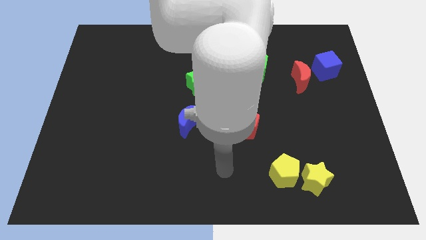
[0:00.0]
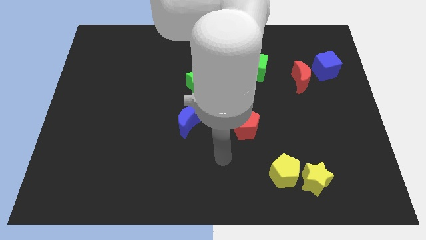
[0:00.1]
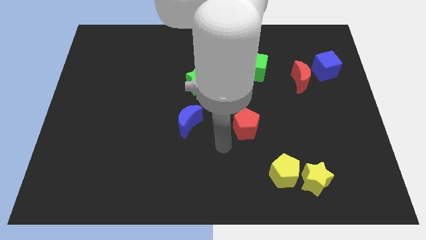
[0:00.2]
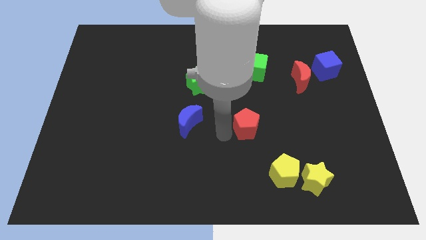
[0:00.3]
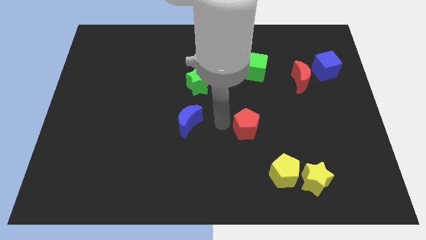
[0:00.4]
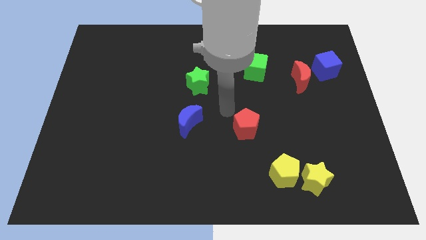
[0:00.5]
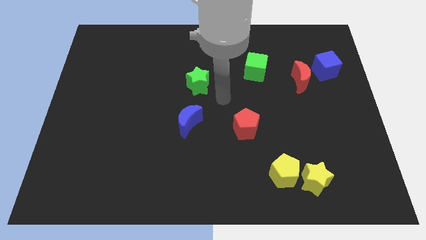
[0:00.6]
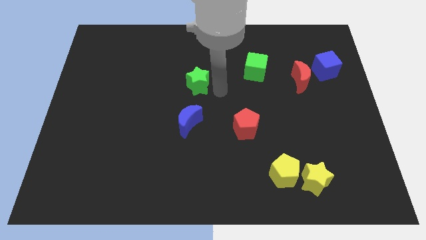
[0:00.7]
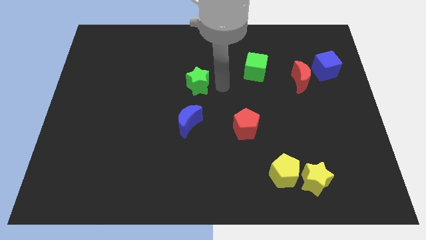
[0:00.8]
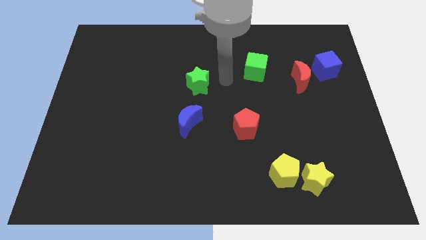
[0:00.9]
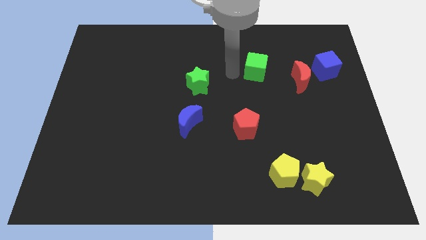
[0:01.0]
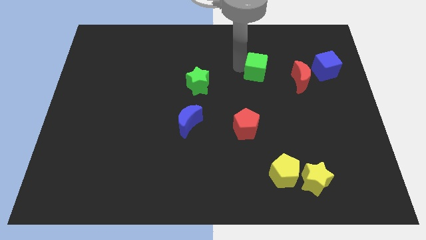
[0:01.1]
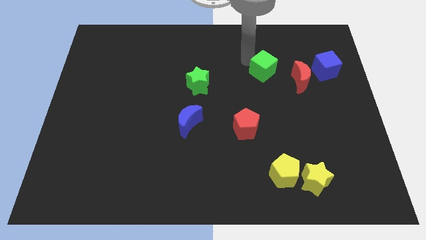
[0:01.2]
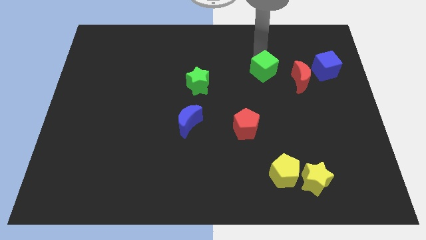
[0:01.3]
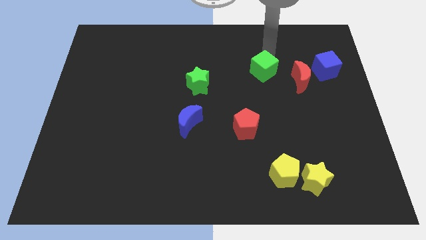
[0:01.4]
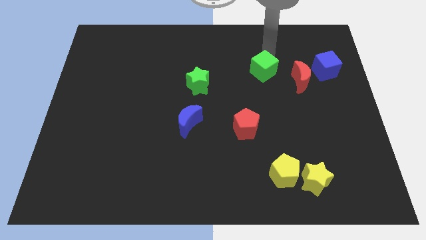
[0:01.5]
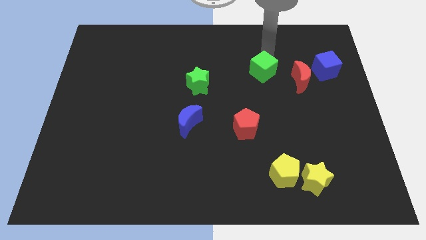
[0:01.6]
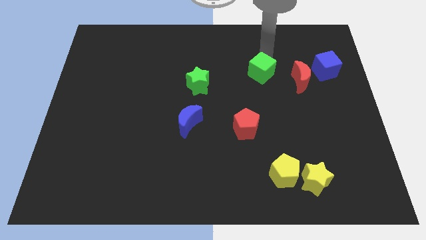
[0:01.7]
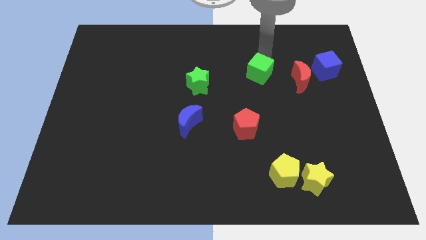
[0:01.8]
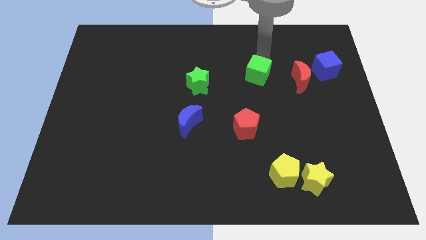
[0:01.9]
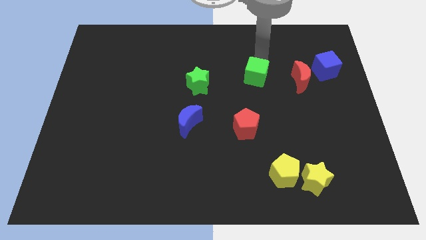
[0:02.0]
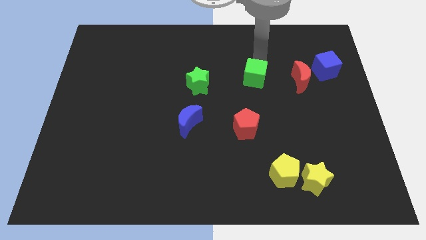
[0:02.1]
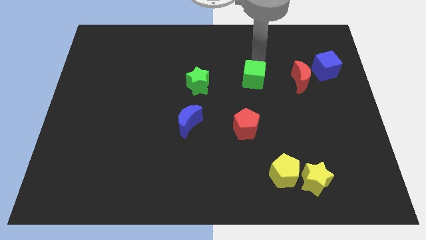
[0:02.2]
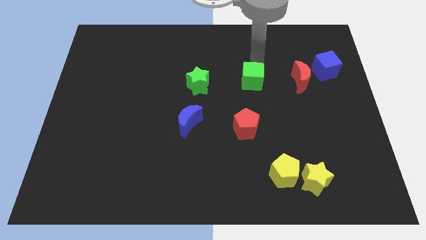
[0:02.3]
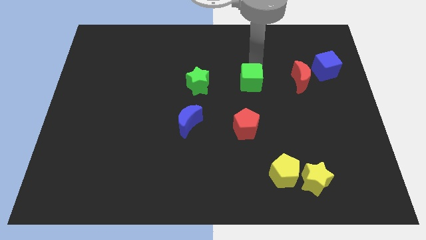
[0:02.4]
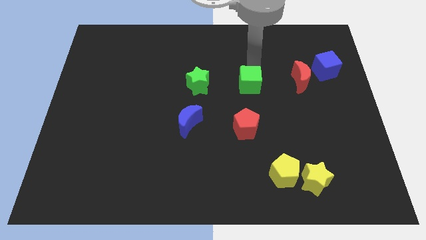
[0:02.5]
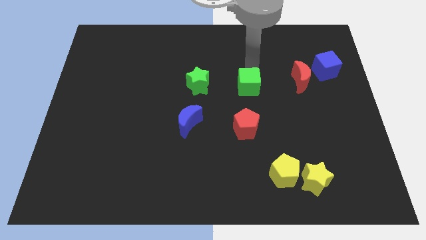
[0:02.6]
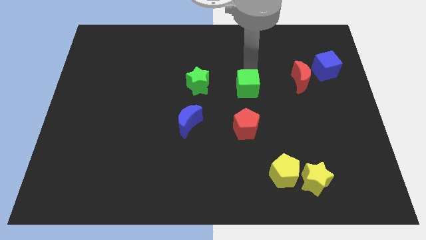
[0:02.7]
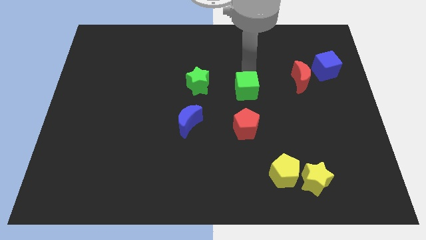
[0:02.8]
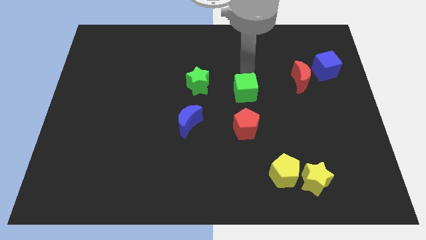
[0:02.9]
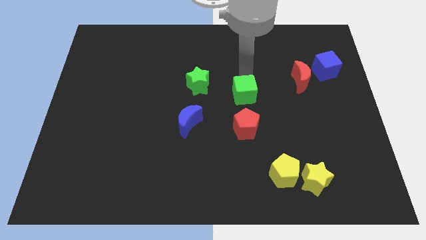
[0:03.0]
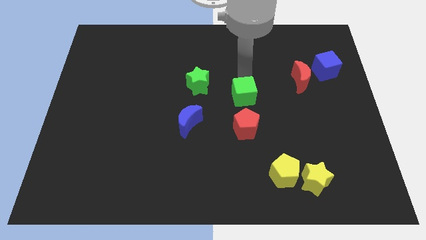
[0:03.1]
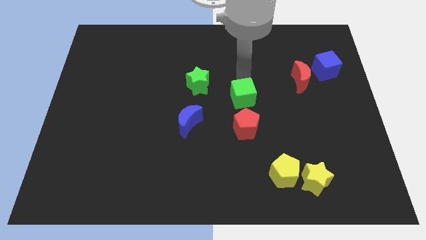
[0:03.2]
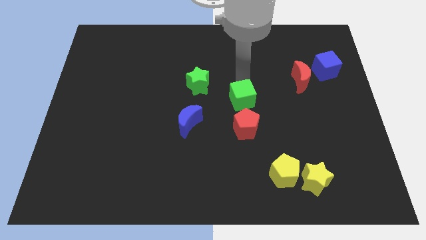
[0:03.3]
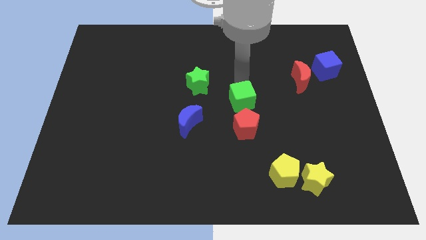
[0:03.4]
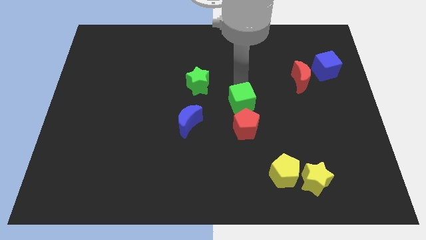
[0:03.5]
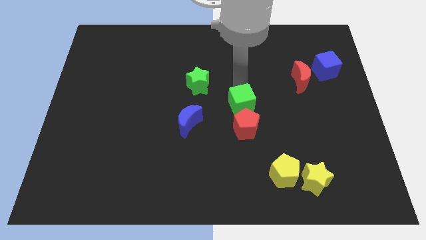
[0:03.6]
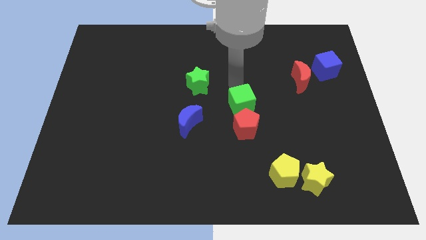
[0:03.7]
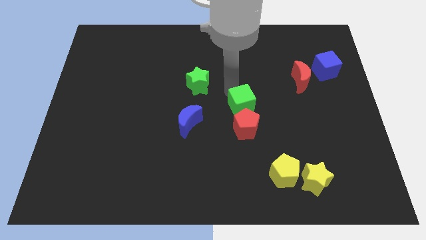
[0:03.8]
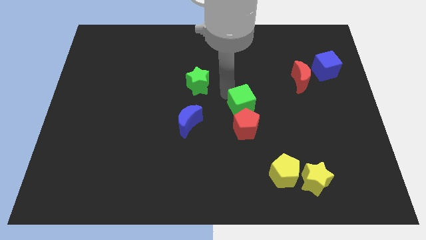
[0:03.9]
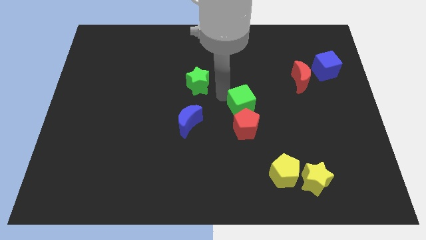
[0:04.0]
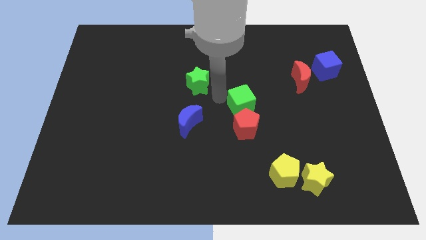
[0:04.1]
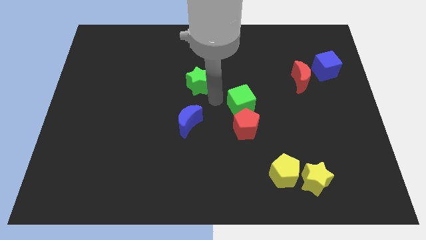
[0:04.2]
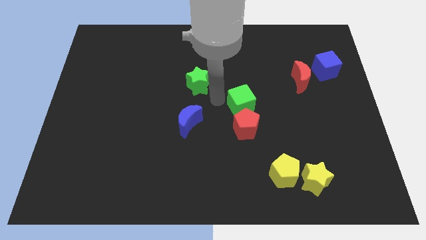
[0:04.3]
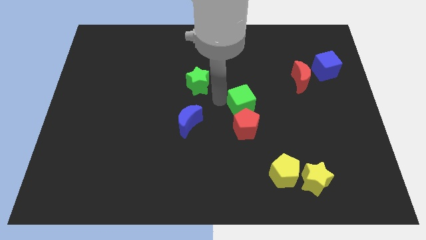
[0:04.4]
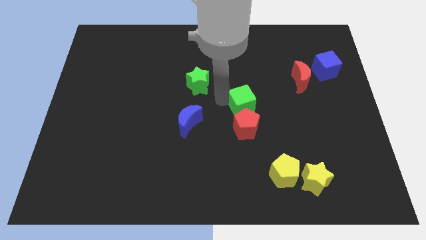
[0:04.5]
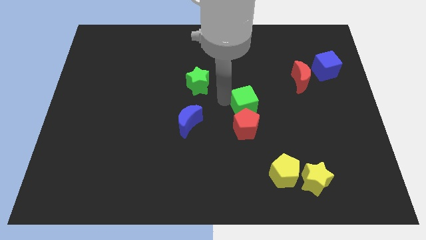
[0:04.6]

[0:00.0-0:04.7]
put the green cube close to the red pentagon

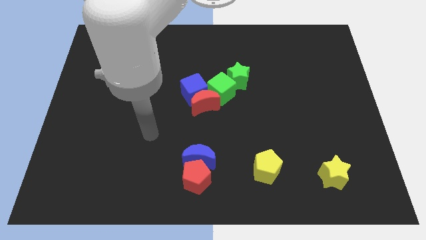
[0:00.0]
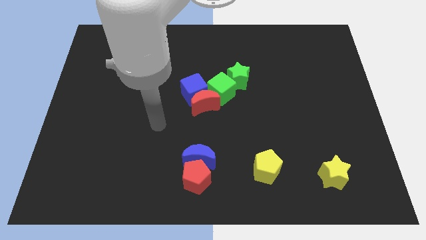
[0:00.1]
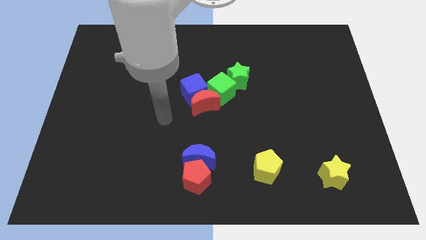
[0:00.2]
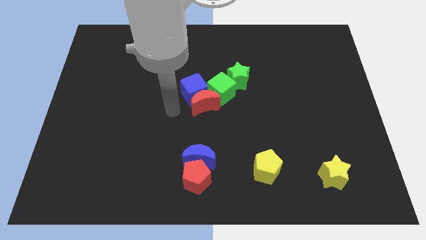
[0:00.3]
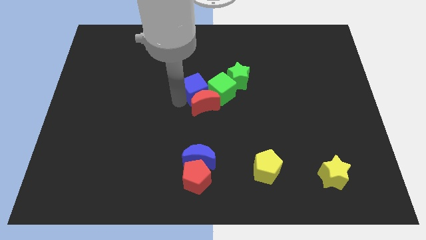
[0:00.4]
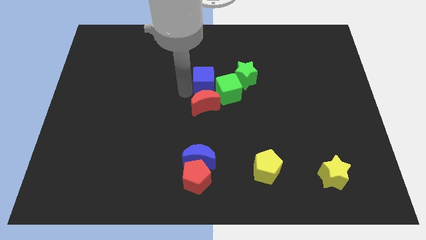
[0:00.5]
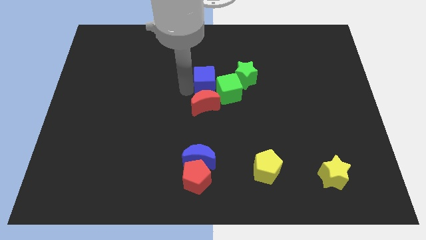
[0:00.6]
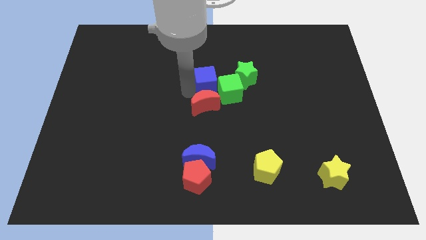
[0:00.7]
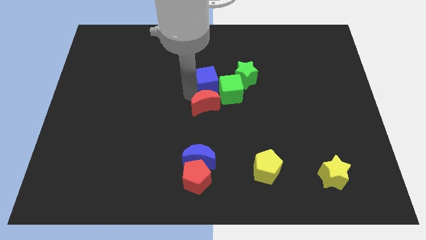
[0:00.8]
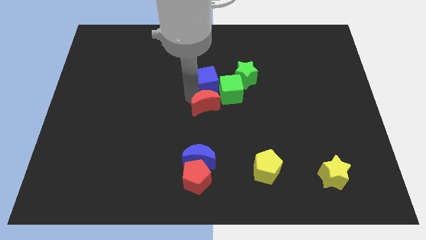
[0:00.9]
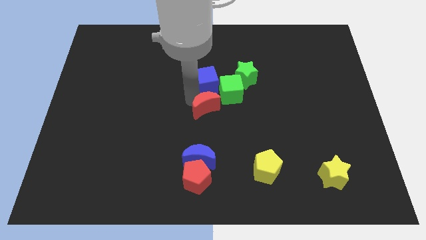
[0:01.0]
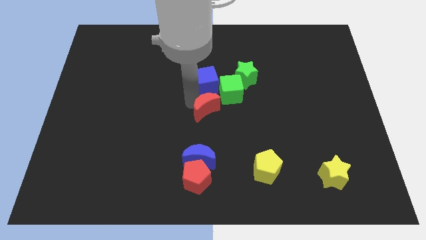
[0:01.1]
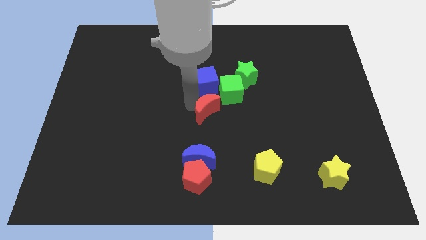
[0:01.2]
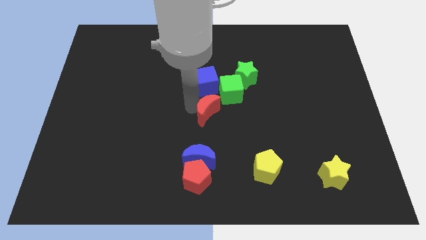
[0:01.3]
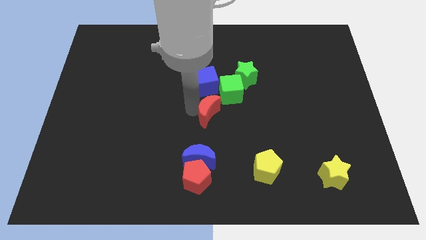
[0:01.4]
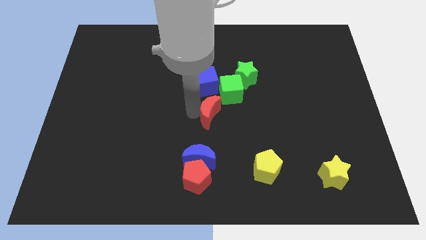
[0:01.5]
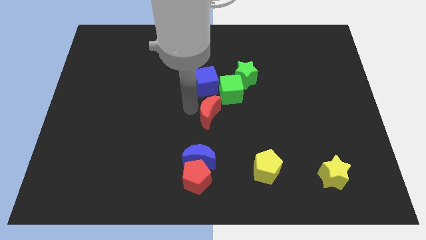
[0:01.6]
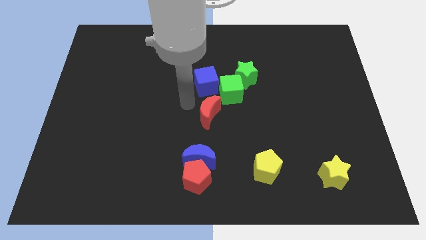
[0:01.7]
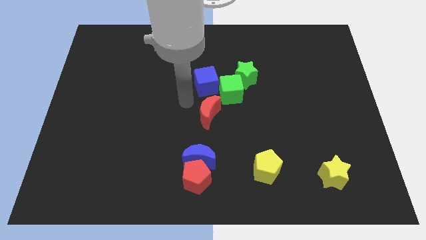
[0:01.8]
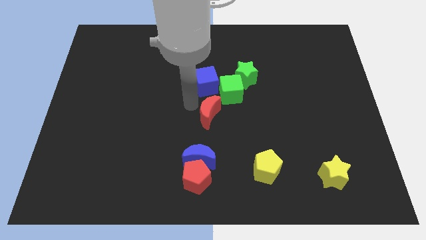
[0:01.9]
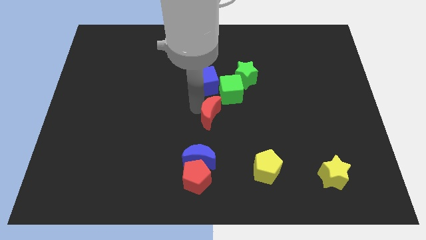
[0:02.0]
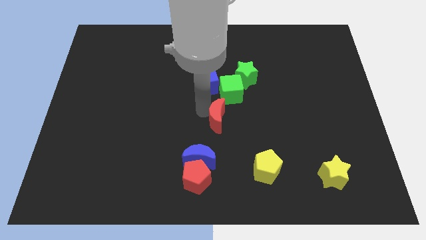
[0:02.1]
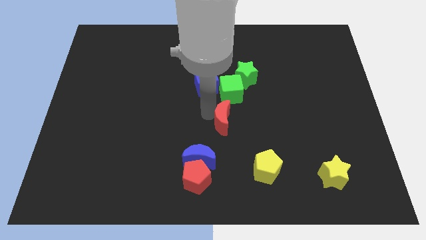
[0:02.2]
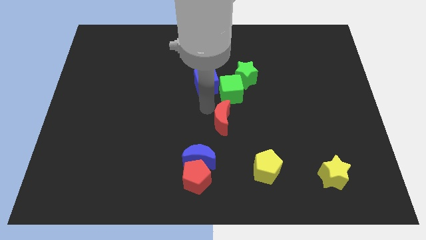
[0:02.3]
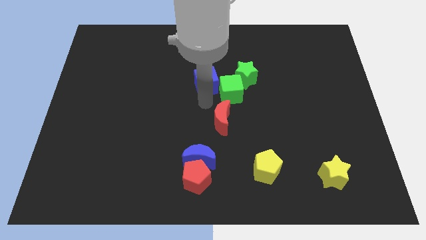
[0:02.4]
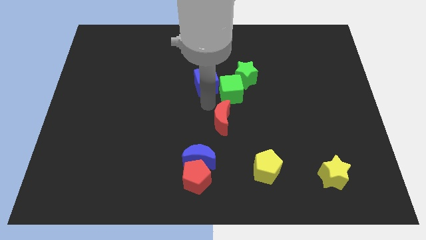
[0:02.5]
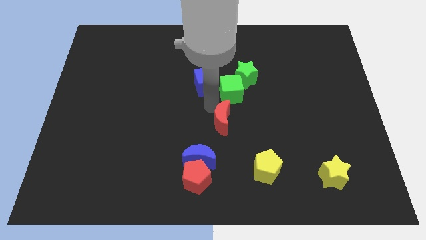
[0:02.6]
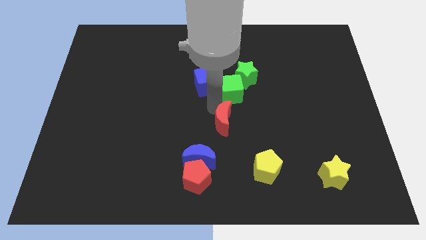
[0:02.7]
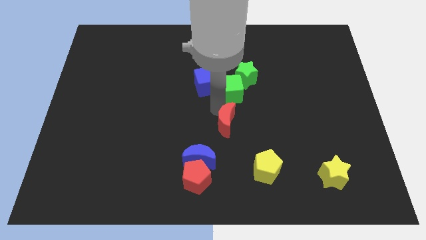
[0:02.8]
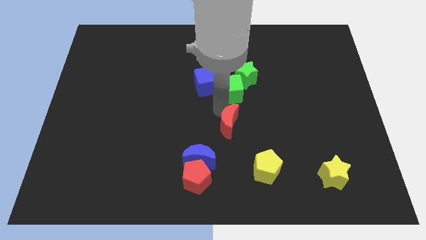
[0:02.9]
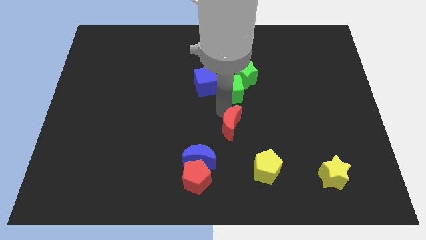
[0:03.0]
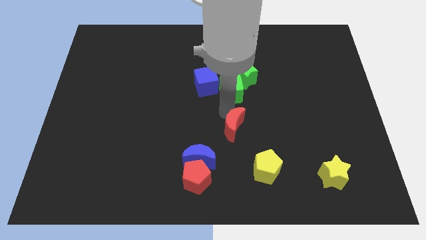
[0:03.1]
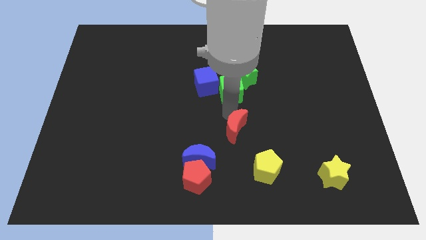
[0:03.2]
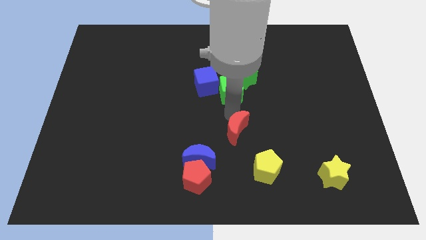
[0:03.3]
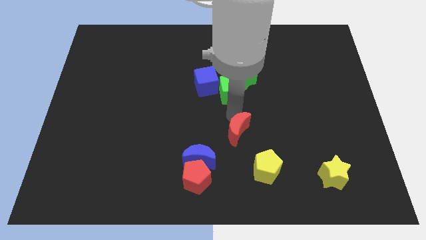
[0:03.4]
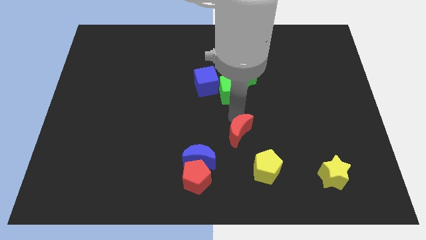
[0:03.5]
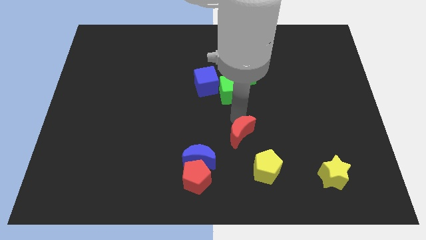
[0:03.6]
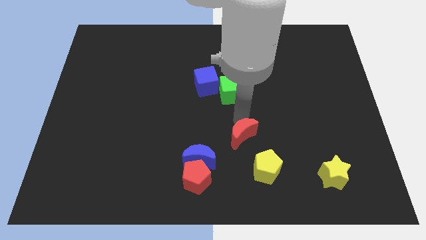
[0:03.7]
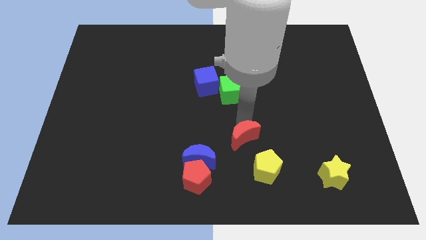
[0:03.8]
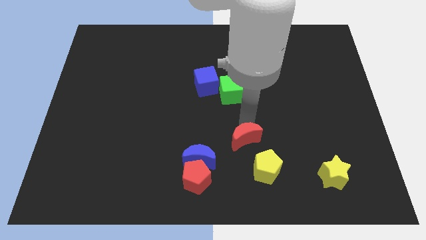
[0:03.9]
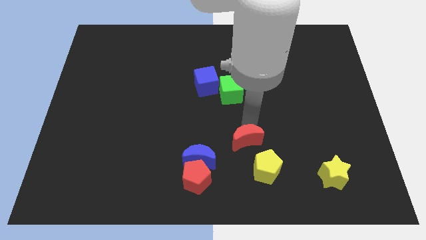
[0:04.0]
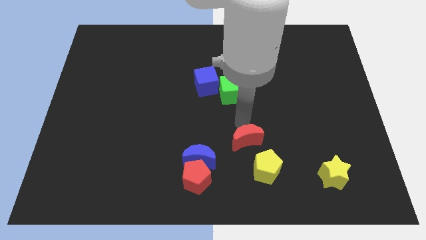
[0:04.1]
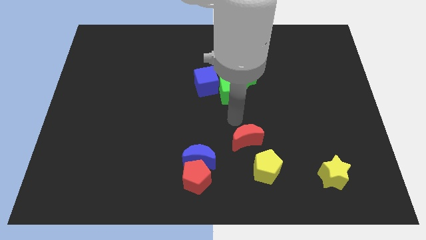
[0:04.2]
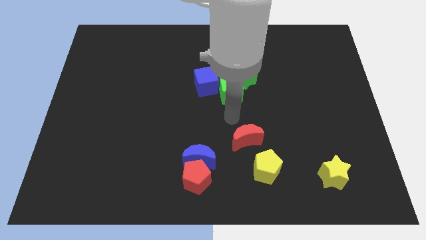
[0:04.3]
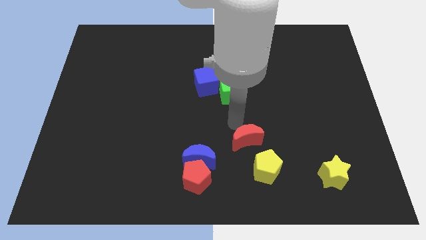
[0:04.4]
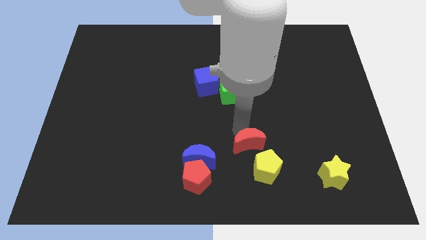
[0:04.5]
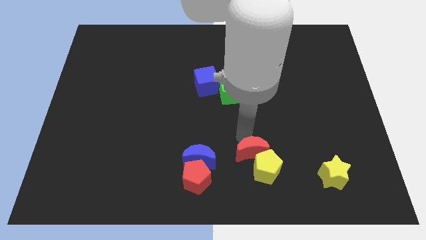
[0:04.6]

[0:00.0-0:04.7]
push the red moon next to the yellow pentagon
